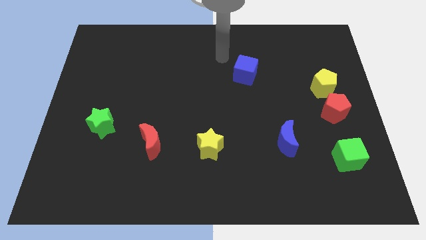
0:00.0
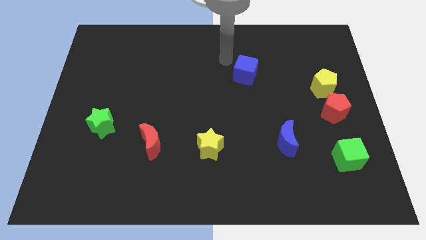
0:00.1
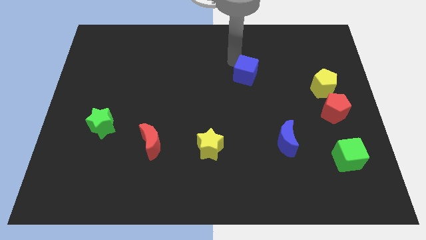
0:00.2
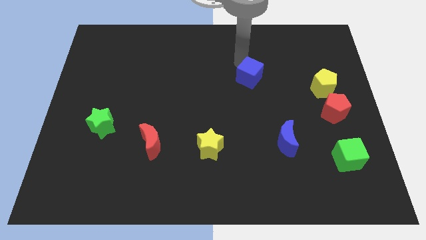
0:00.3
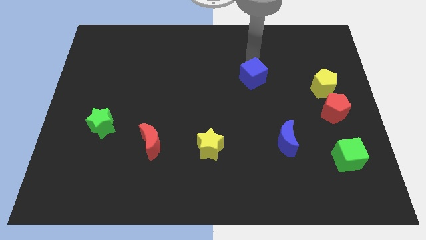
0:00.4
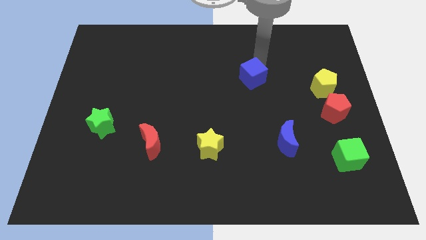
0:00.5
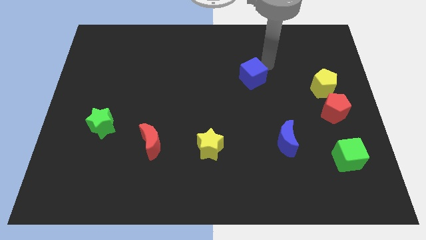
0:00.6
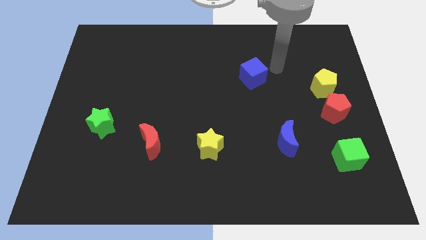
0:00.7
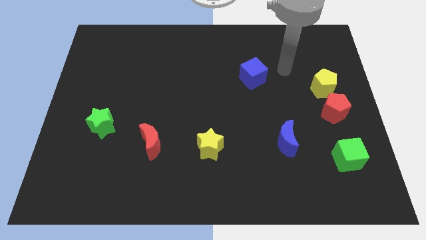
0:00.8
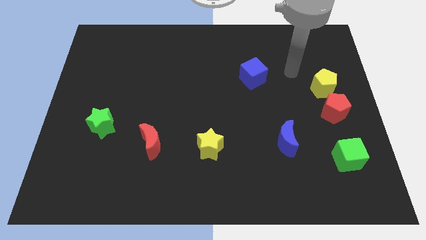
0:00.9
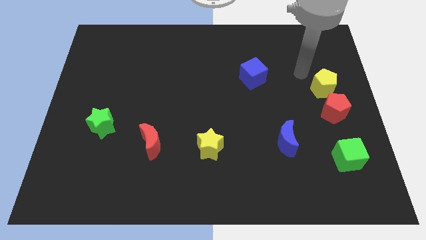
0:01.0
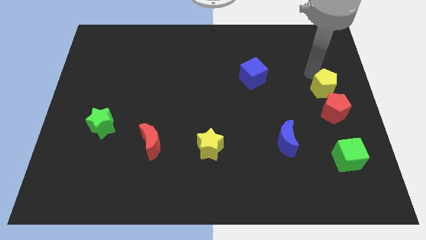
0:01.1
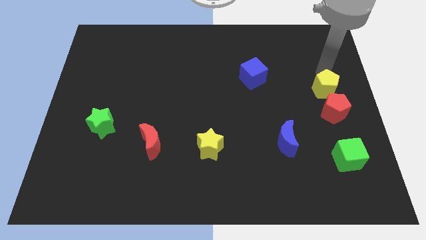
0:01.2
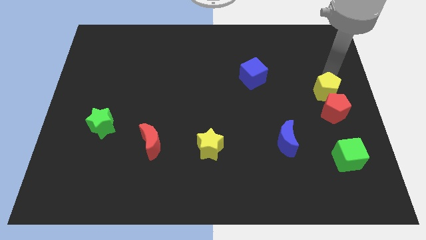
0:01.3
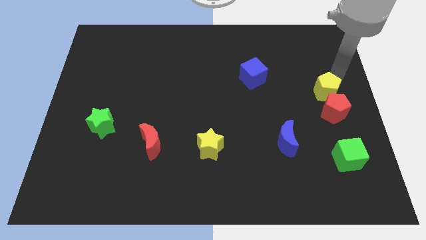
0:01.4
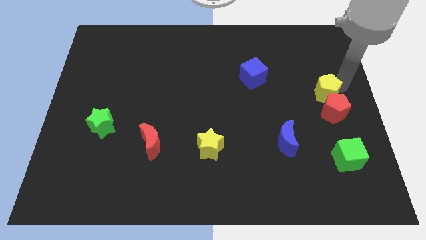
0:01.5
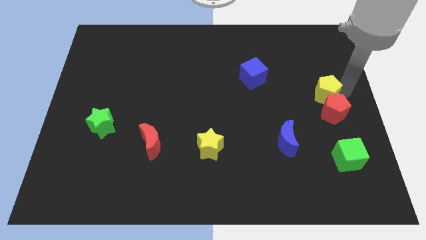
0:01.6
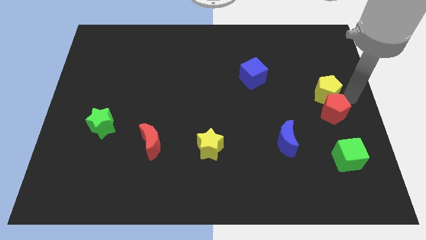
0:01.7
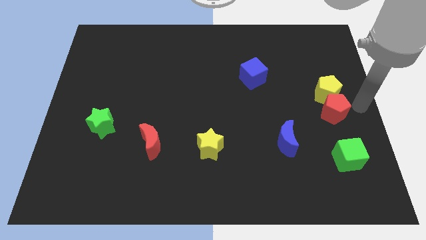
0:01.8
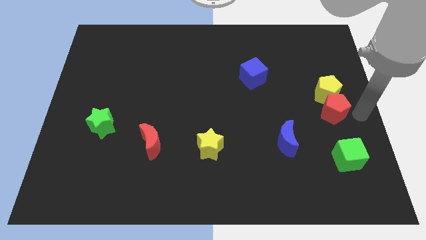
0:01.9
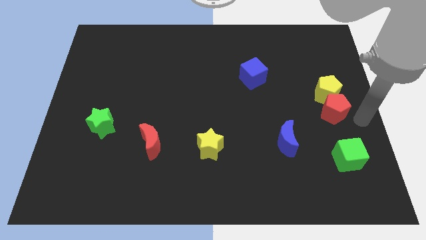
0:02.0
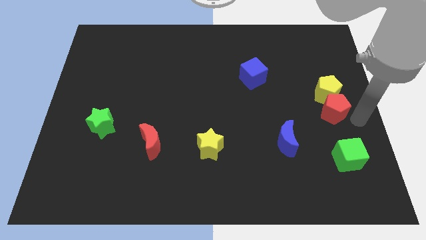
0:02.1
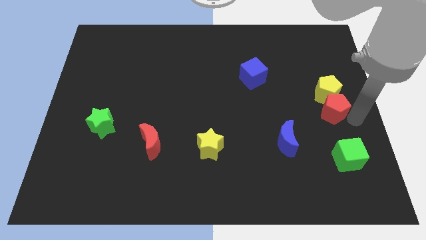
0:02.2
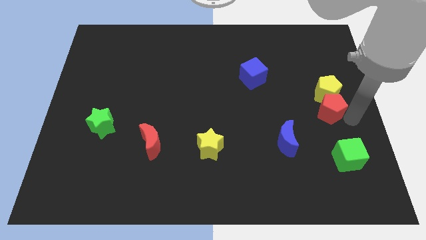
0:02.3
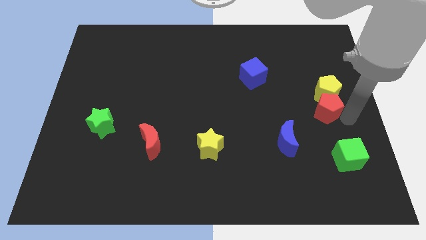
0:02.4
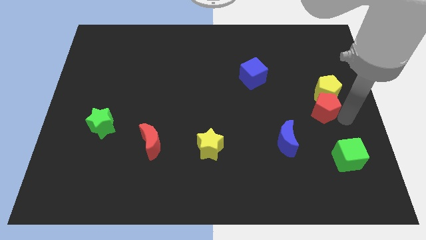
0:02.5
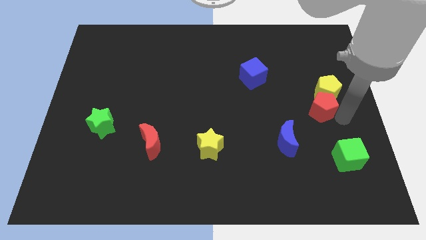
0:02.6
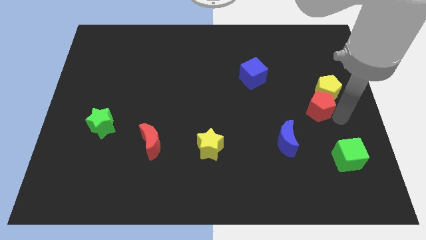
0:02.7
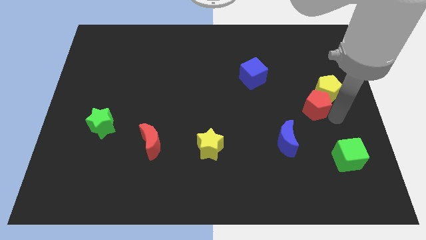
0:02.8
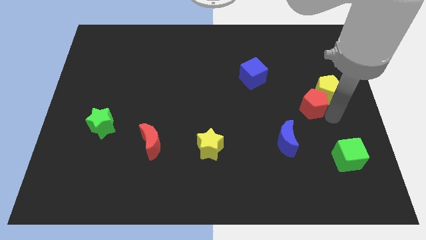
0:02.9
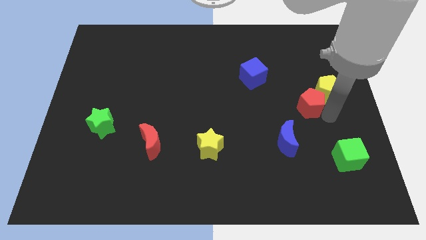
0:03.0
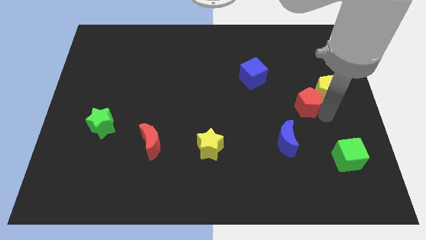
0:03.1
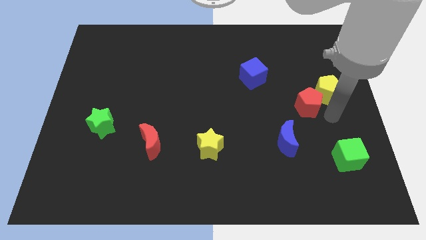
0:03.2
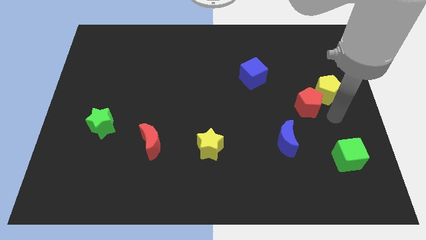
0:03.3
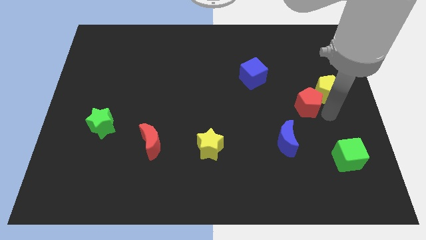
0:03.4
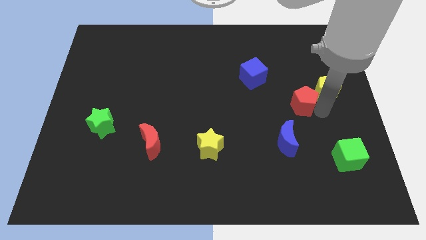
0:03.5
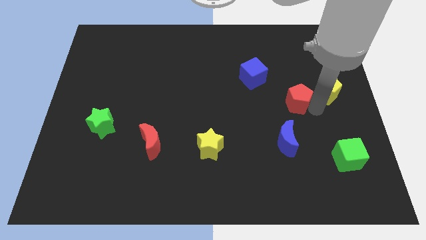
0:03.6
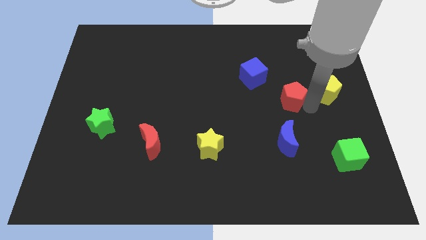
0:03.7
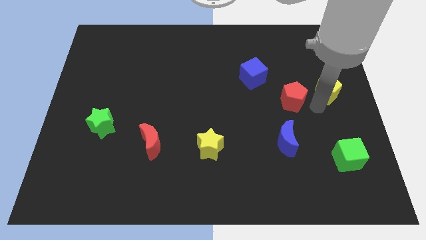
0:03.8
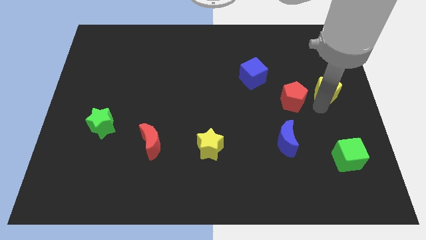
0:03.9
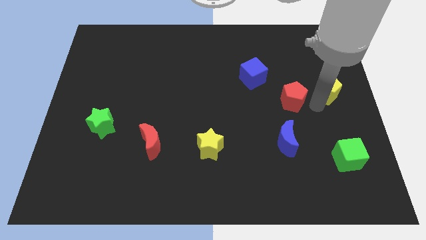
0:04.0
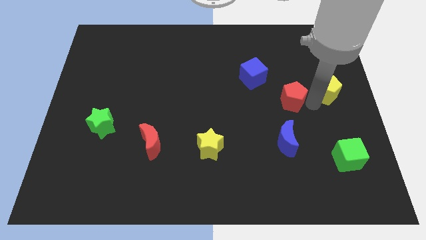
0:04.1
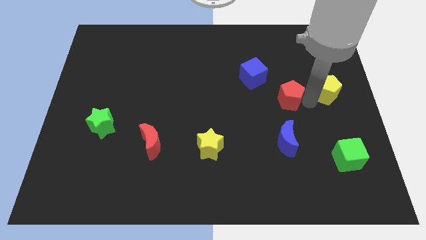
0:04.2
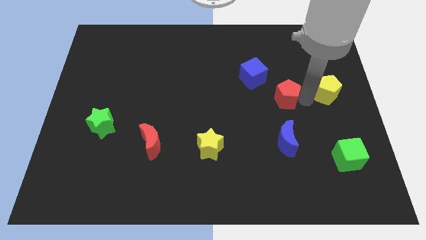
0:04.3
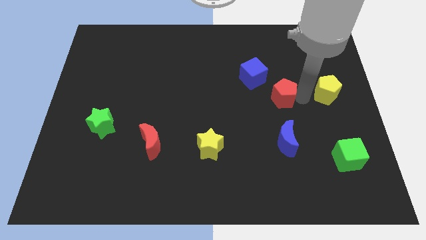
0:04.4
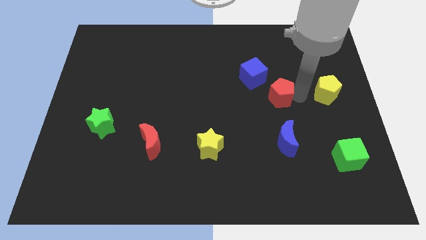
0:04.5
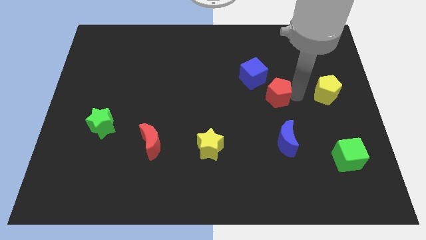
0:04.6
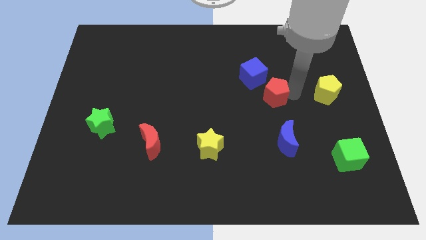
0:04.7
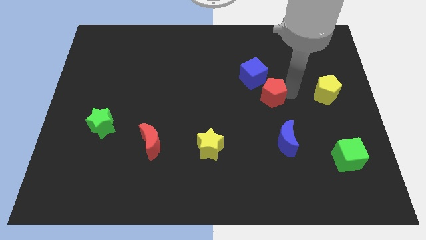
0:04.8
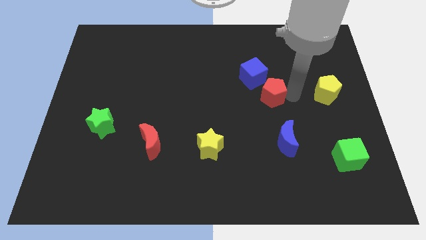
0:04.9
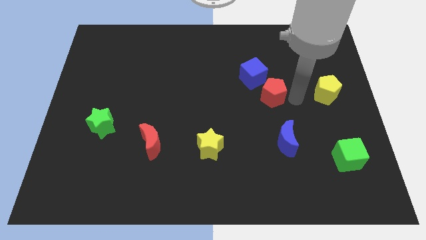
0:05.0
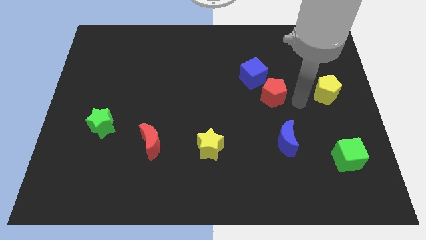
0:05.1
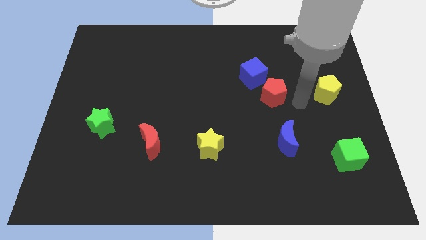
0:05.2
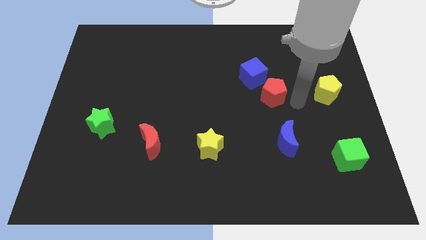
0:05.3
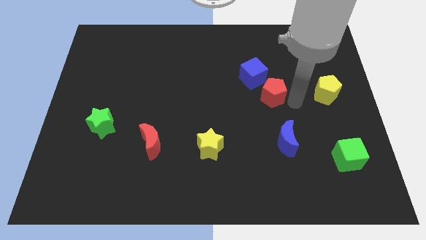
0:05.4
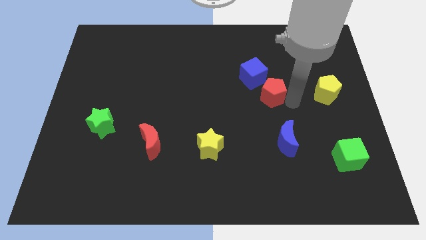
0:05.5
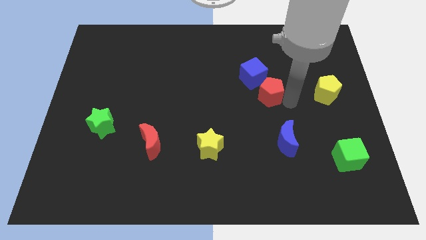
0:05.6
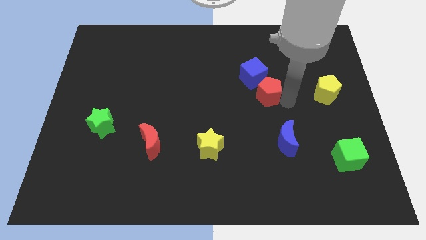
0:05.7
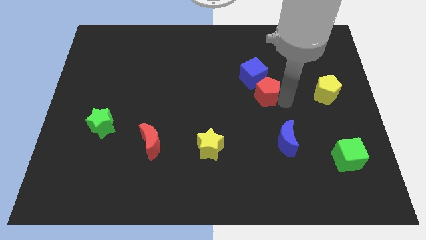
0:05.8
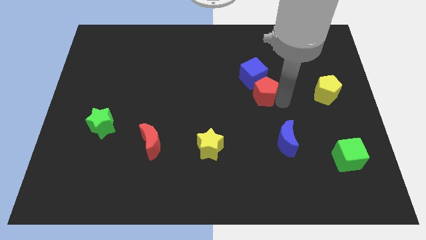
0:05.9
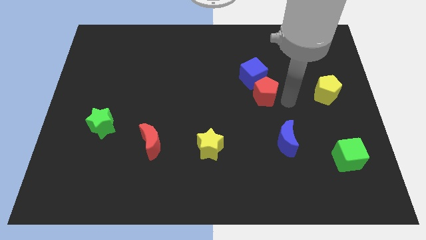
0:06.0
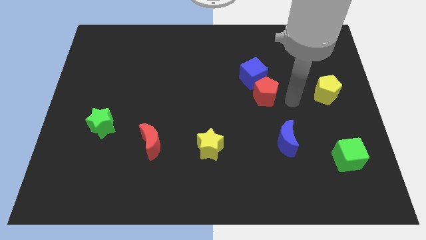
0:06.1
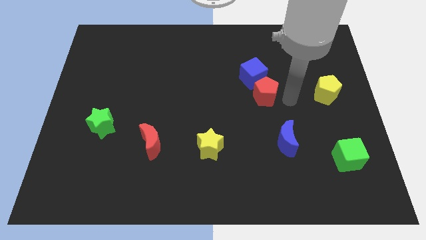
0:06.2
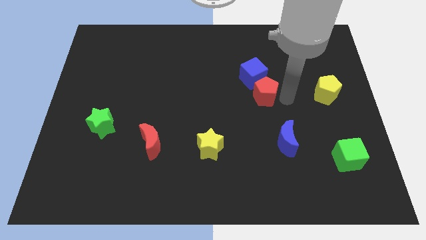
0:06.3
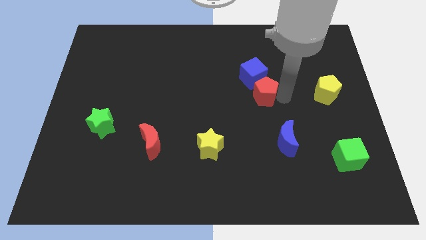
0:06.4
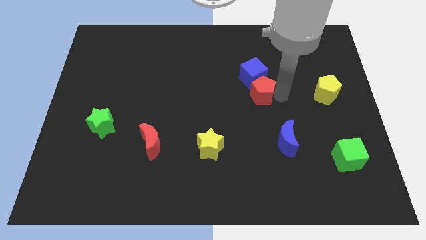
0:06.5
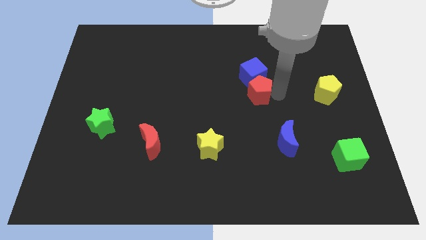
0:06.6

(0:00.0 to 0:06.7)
move the red pentagon diagonally down and to the left of the blue cube

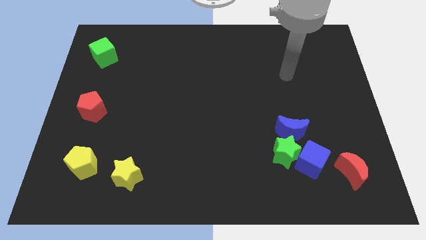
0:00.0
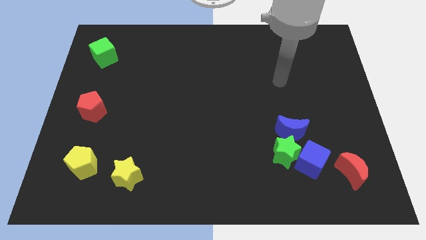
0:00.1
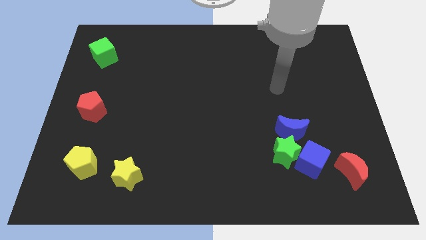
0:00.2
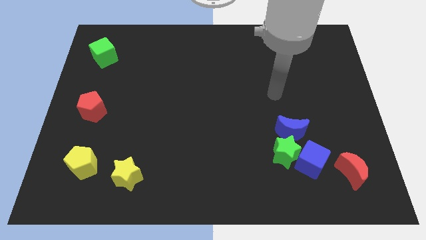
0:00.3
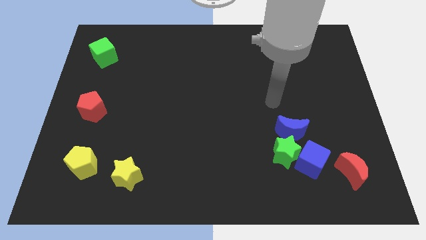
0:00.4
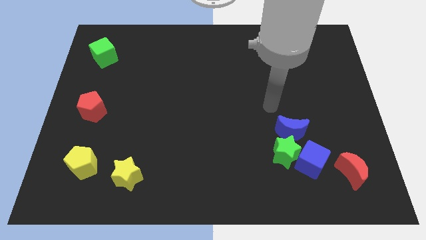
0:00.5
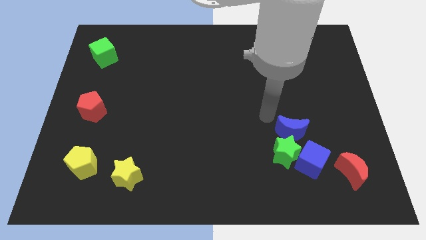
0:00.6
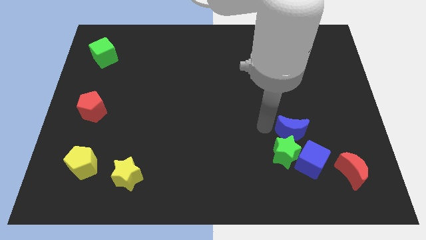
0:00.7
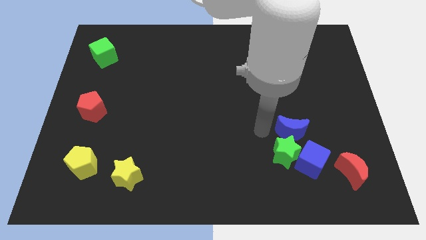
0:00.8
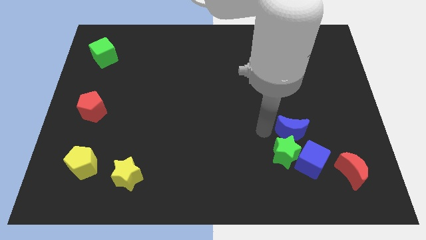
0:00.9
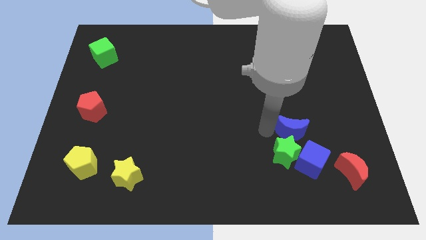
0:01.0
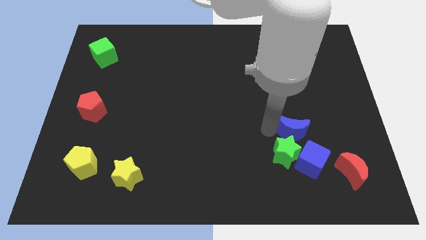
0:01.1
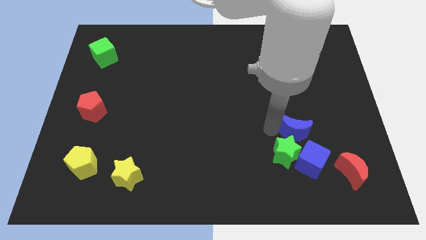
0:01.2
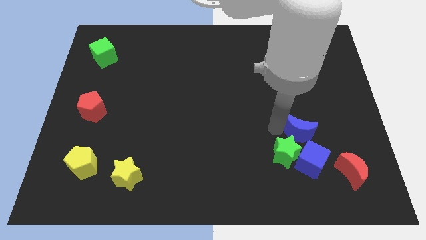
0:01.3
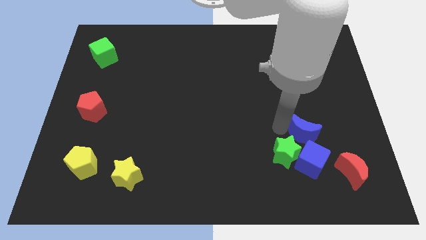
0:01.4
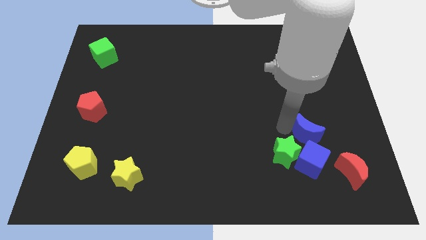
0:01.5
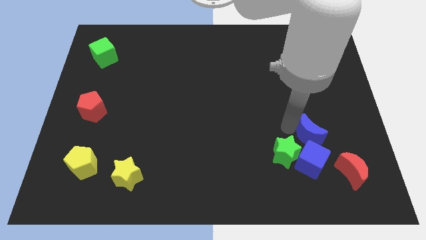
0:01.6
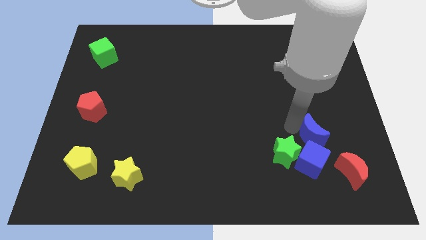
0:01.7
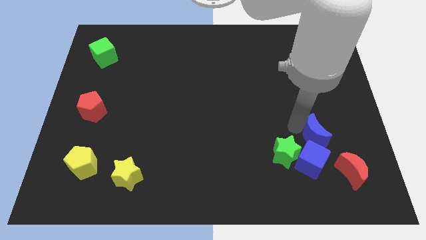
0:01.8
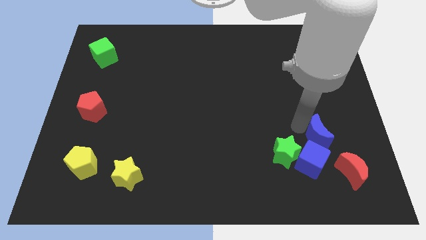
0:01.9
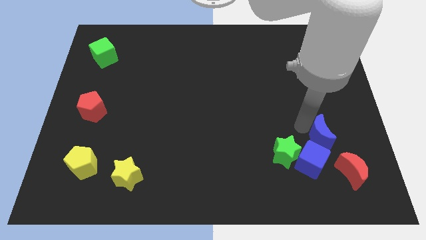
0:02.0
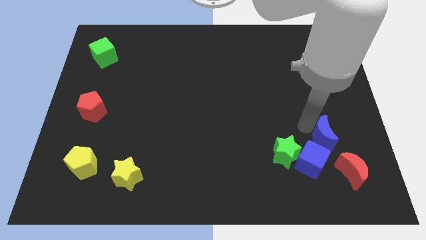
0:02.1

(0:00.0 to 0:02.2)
push the blue moon to the top of the red moon
